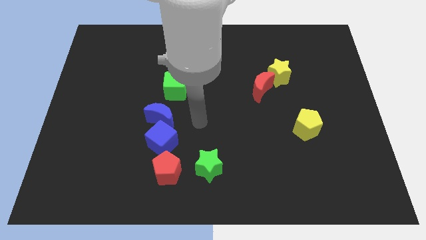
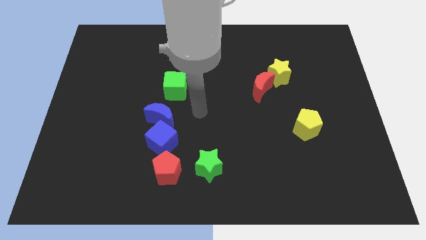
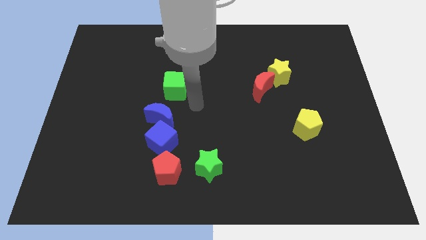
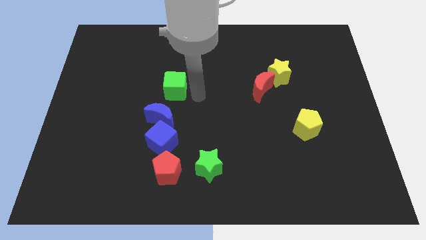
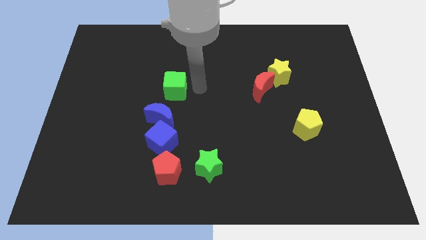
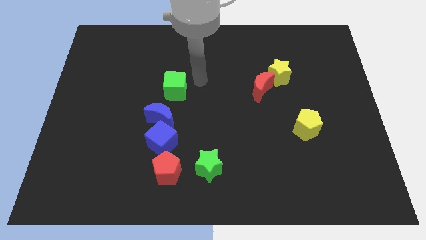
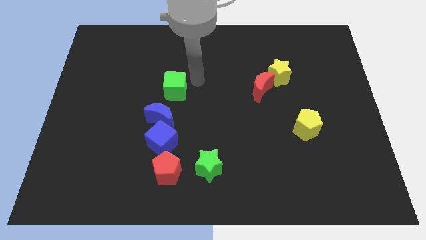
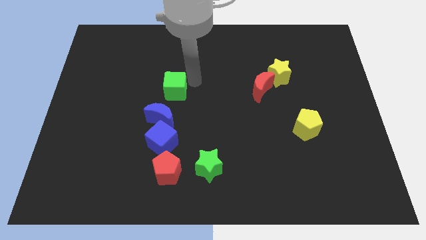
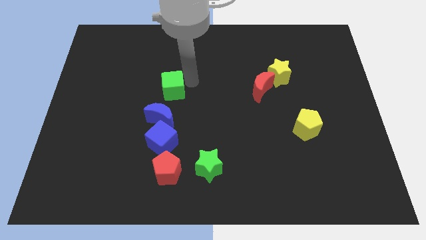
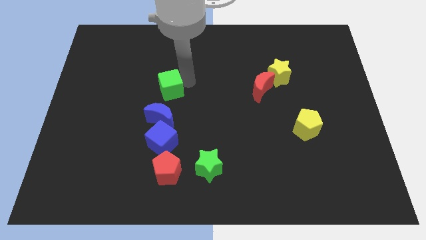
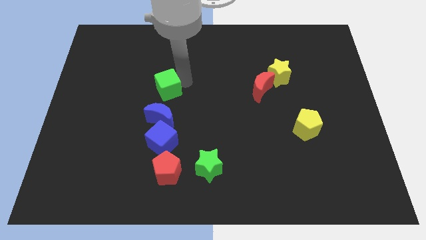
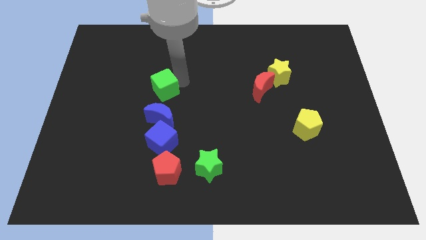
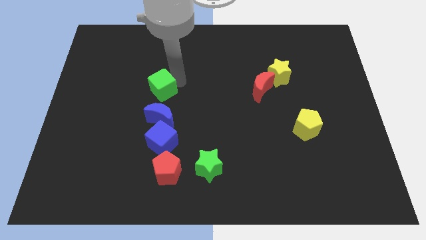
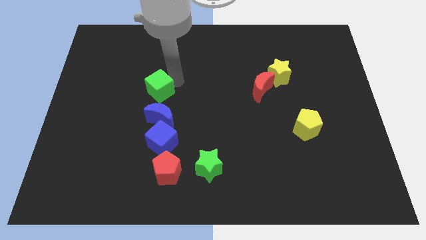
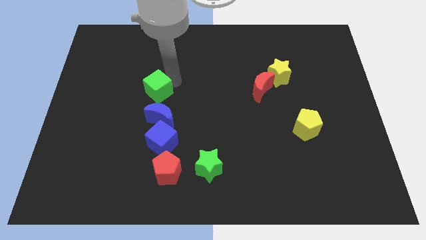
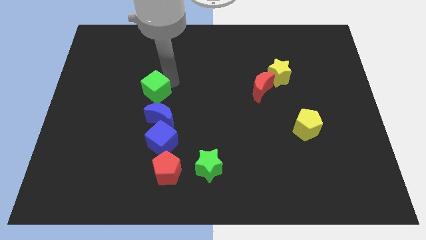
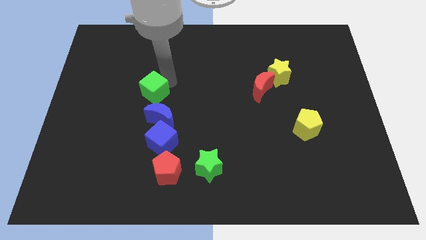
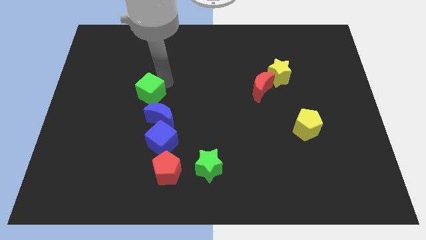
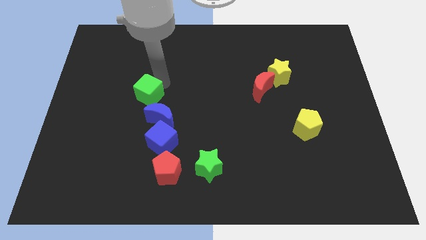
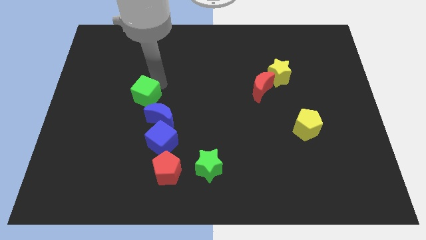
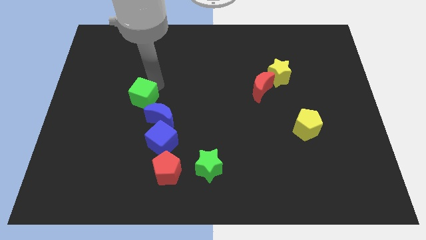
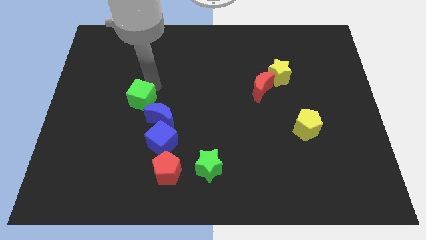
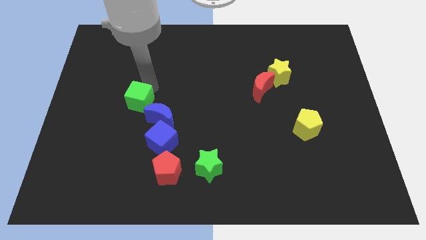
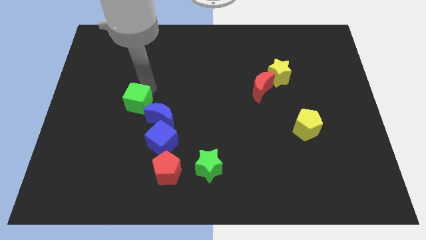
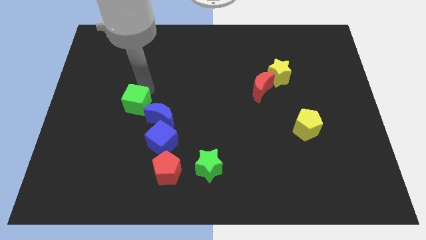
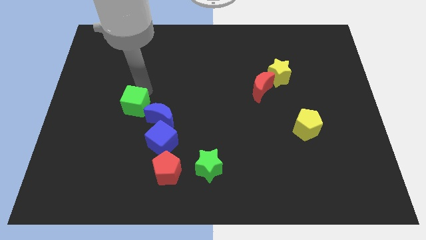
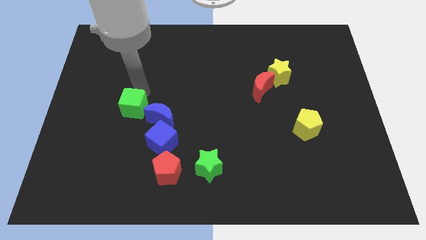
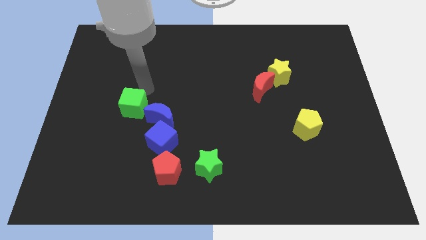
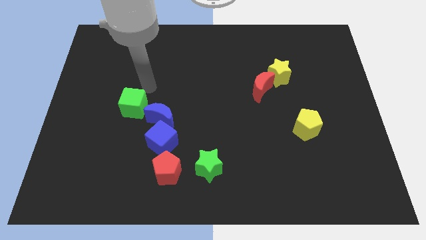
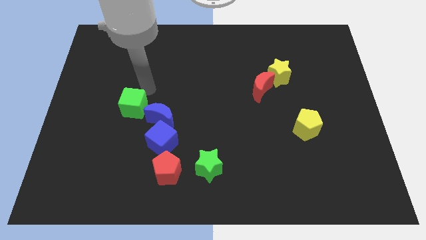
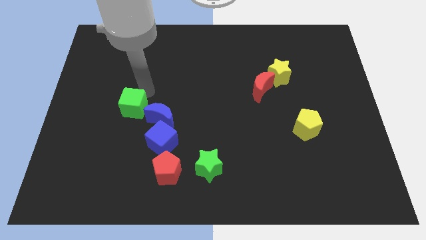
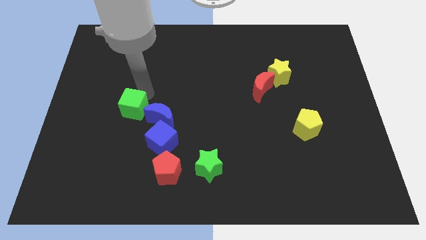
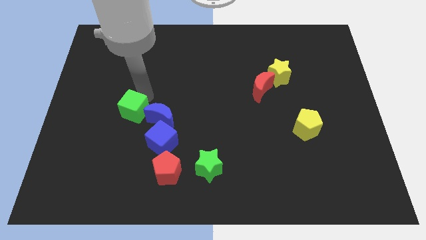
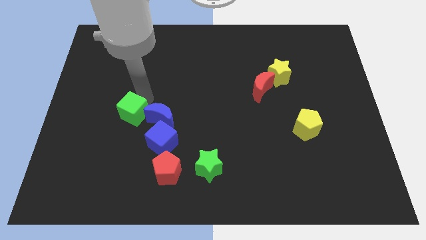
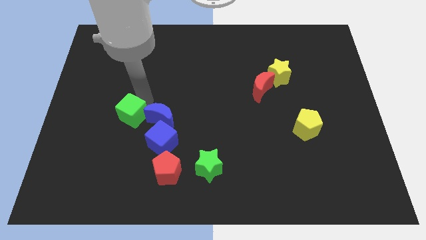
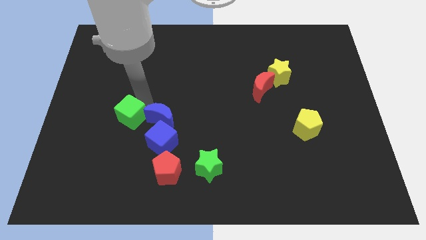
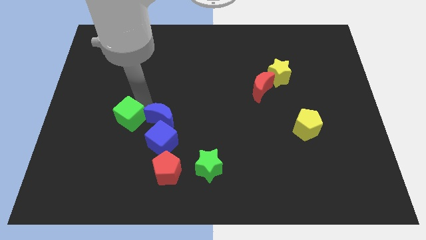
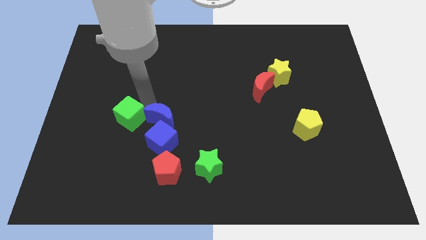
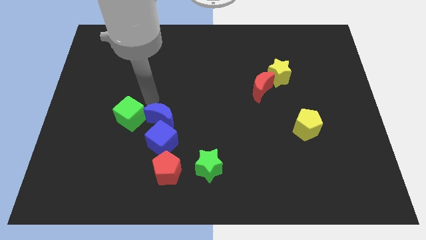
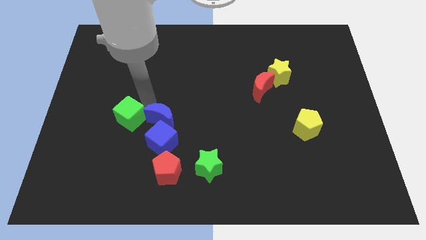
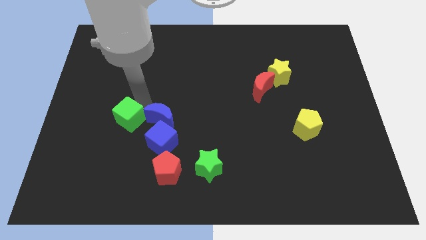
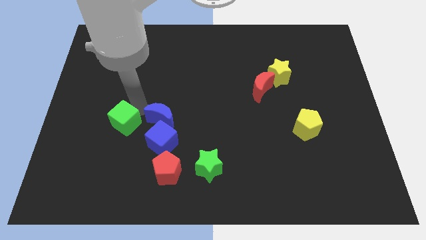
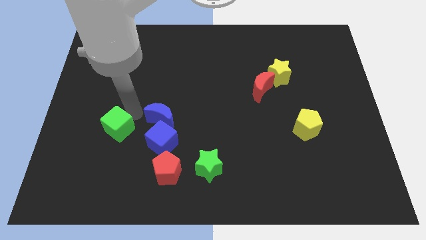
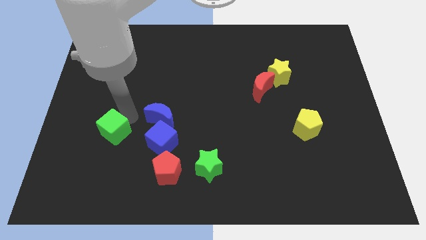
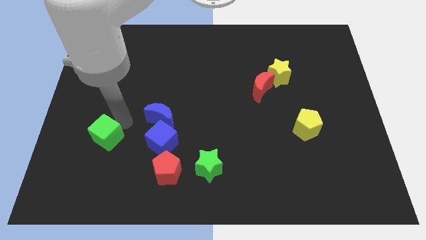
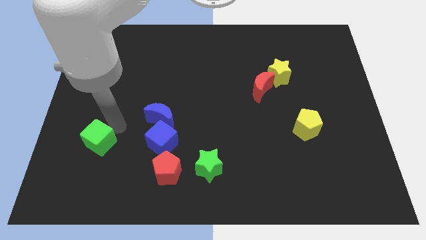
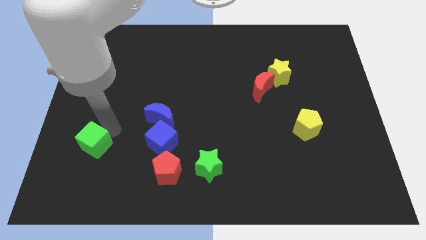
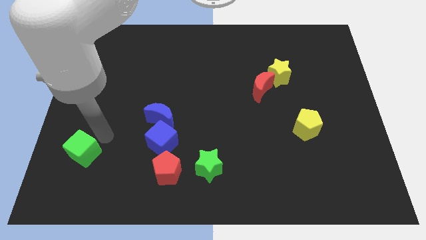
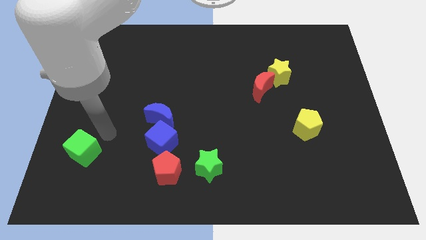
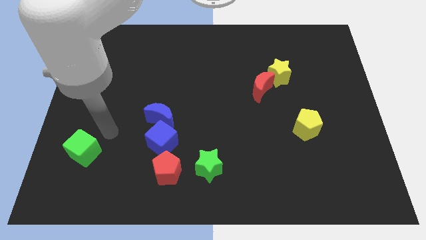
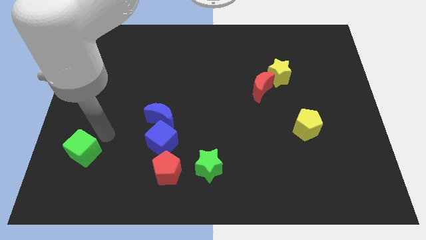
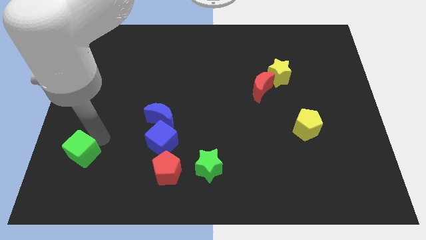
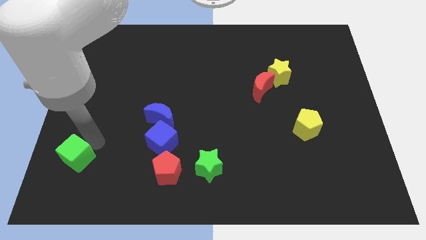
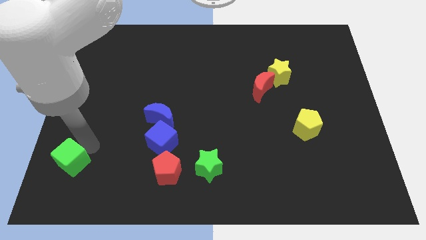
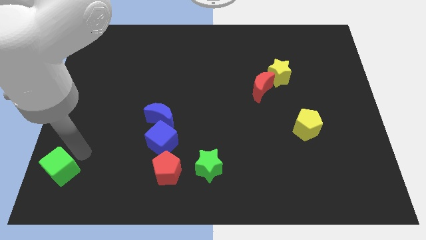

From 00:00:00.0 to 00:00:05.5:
put the green cube to the bottom left

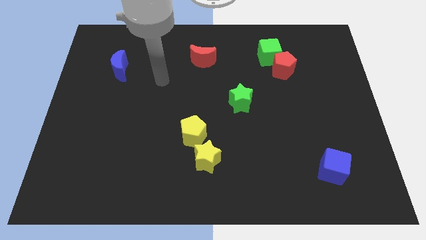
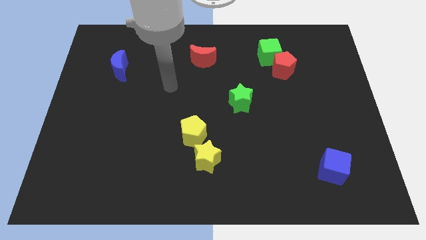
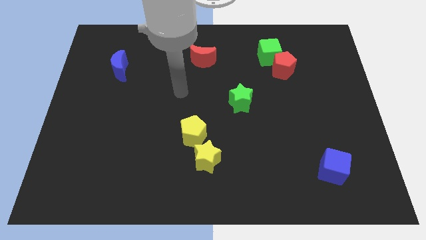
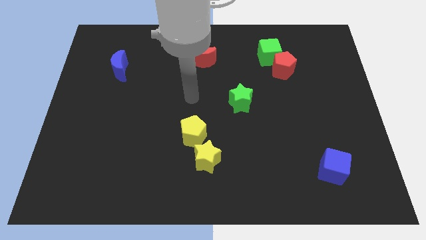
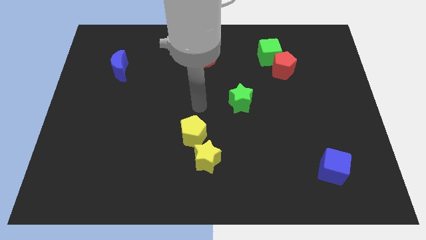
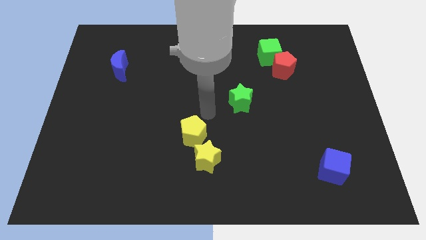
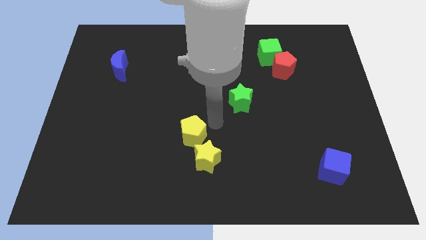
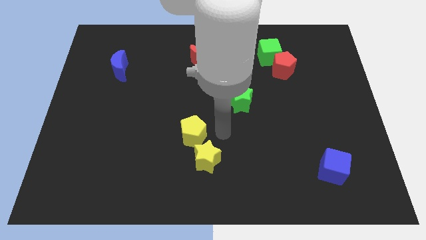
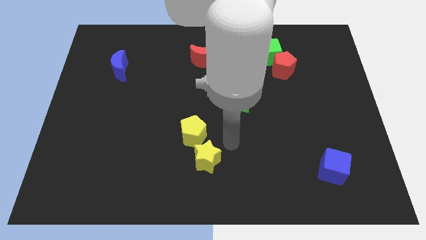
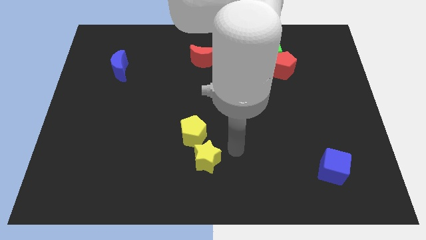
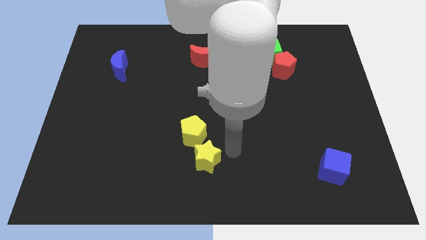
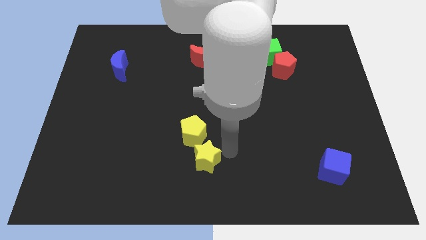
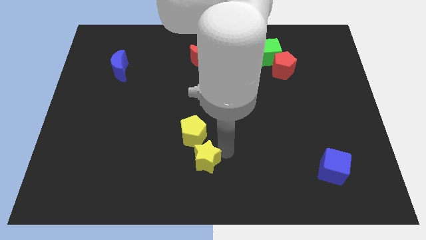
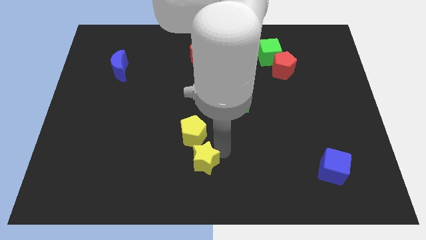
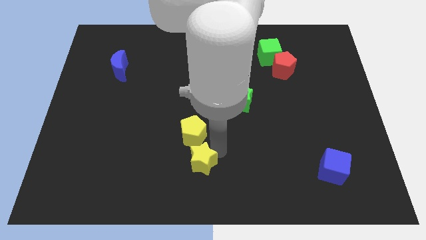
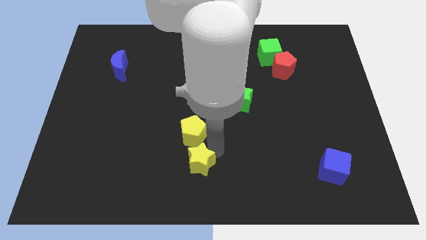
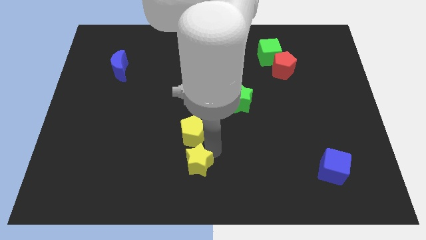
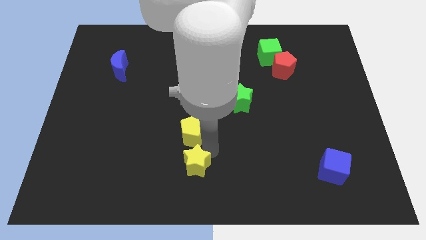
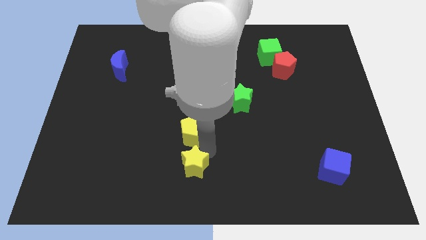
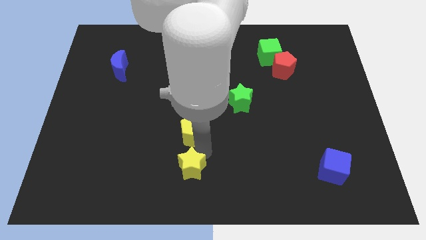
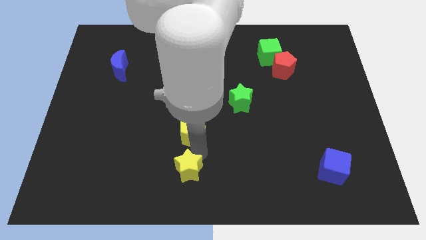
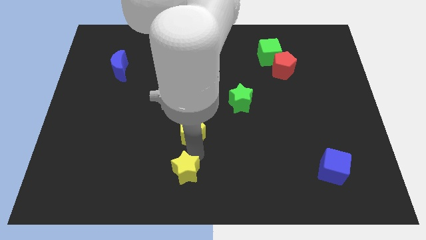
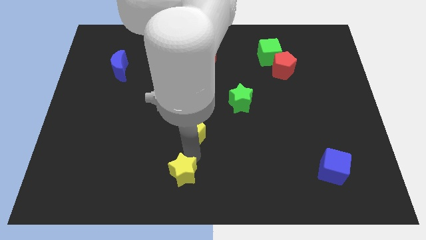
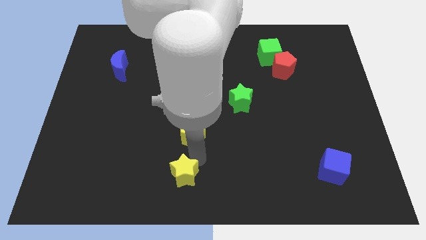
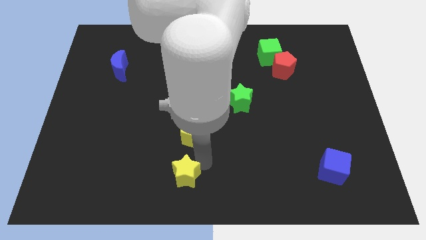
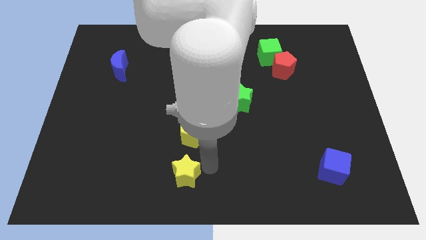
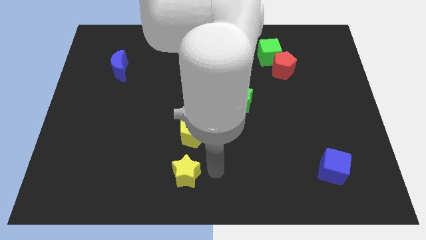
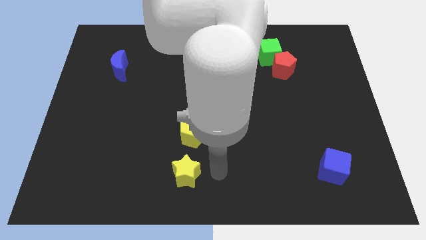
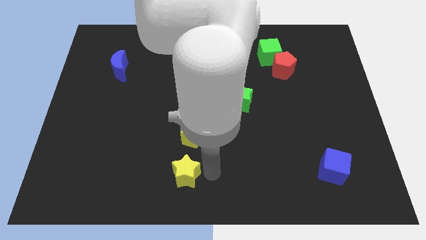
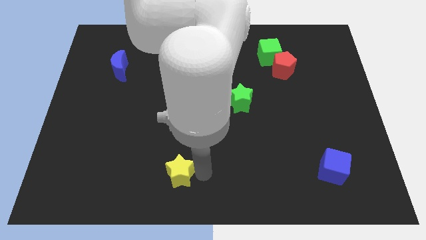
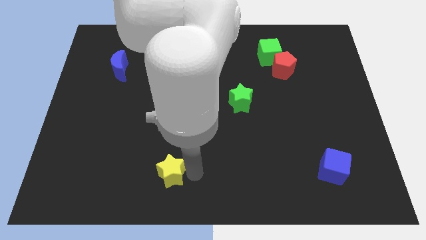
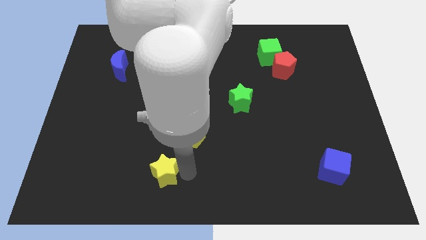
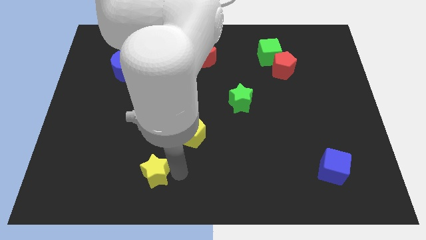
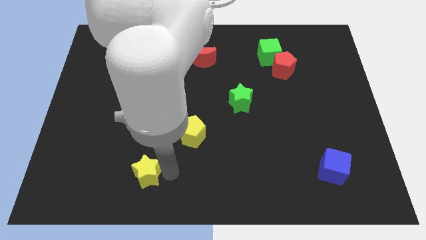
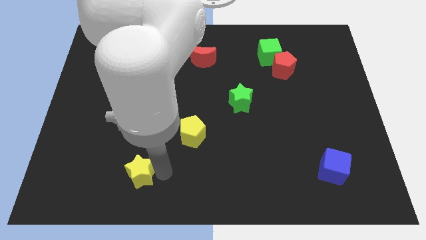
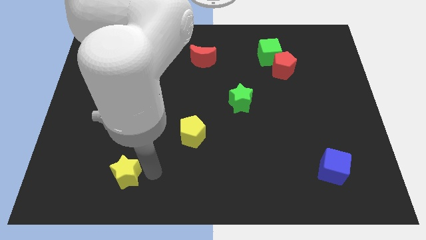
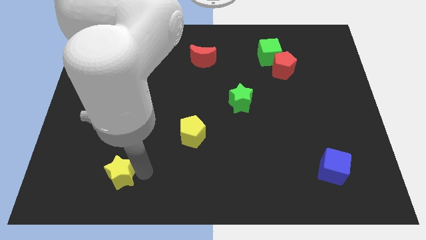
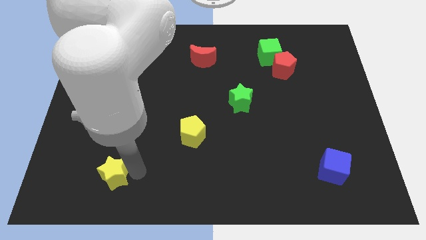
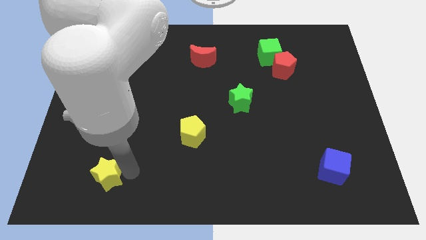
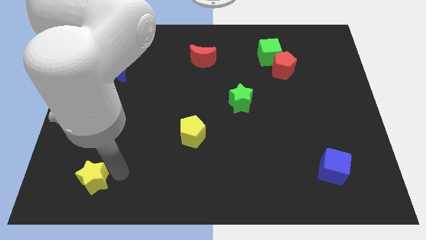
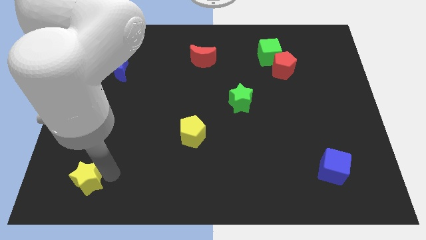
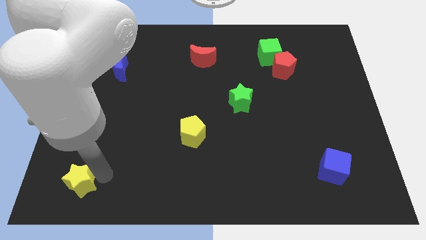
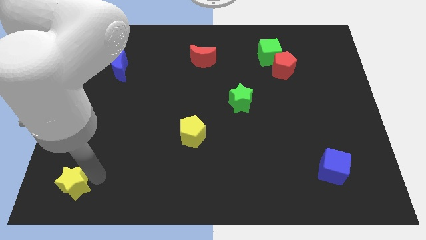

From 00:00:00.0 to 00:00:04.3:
push the yellow star to the bottom left
